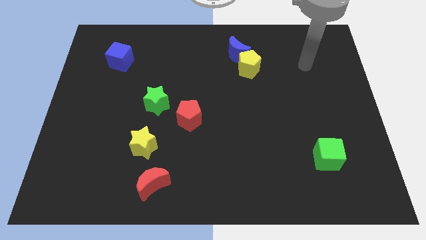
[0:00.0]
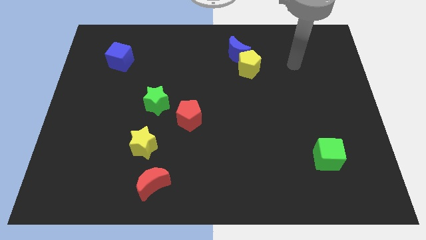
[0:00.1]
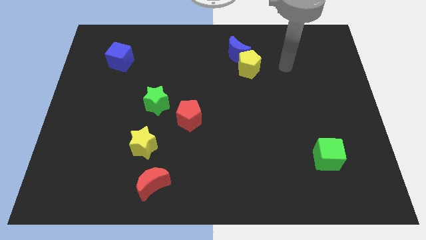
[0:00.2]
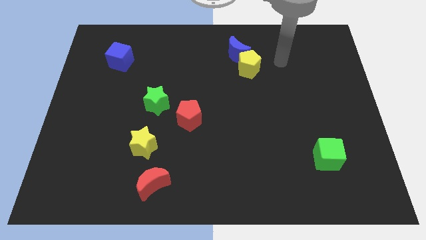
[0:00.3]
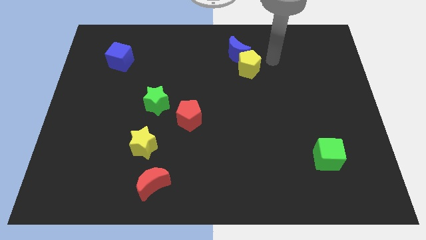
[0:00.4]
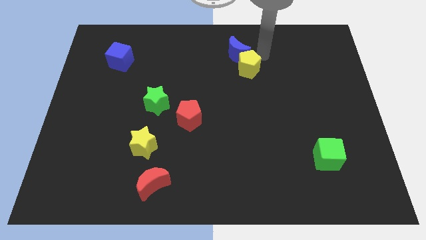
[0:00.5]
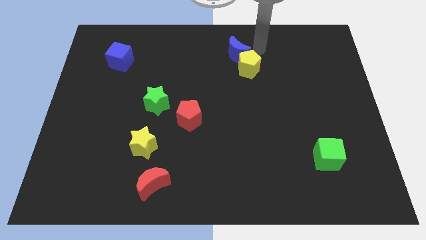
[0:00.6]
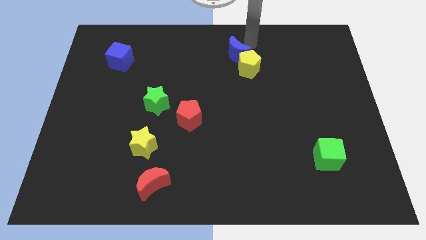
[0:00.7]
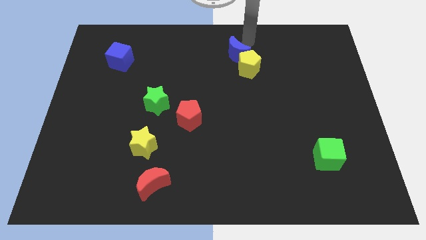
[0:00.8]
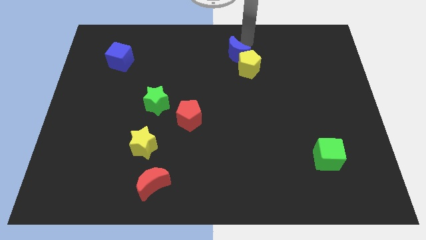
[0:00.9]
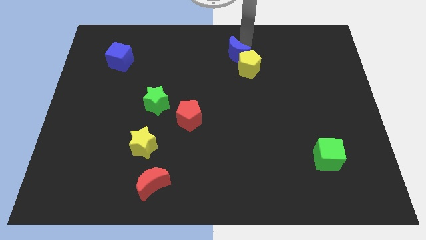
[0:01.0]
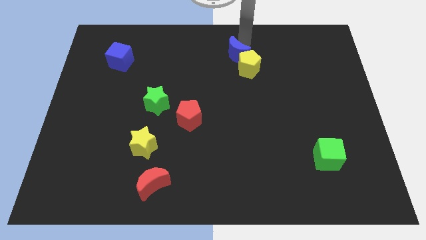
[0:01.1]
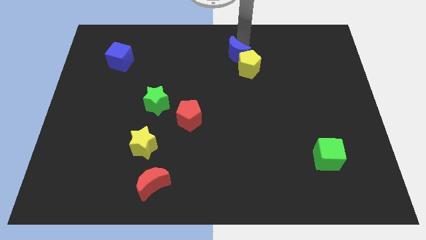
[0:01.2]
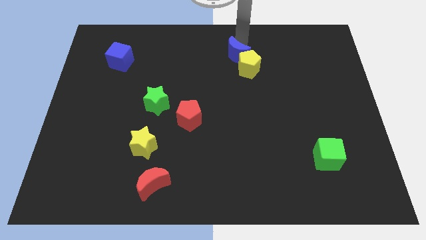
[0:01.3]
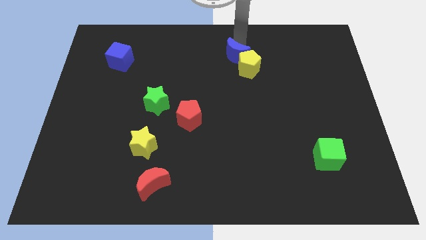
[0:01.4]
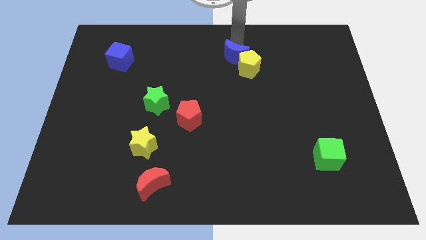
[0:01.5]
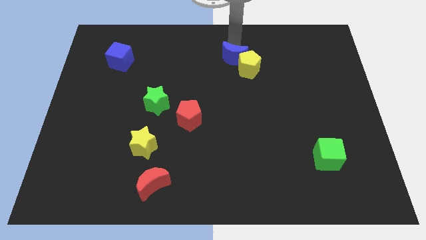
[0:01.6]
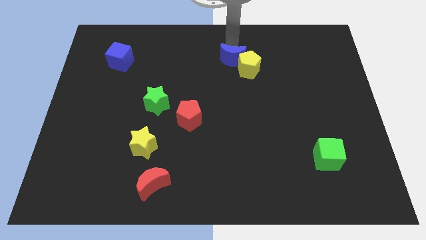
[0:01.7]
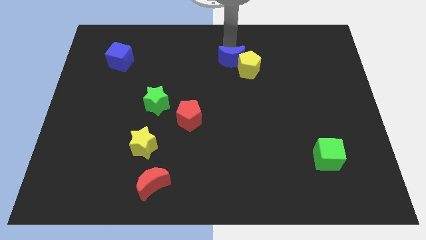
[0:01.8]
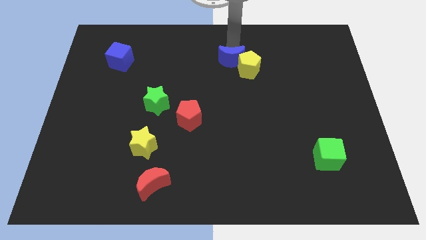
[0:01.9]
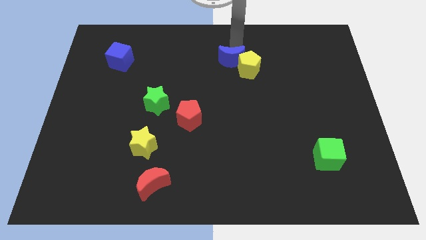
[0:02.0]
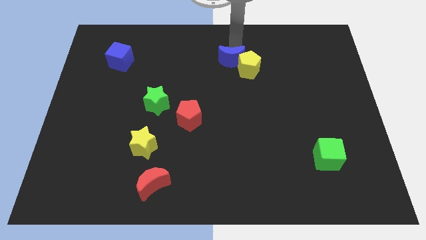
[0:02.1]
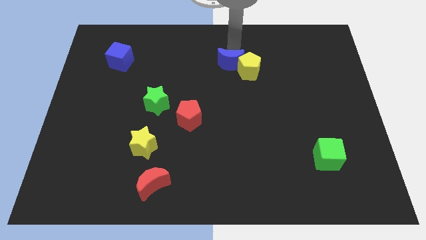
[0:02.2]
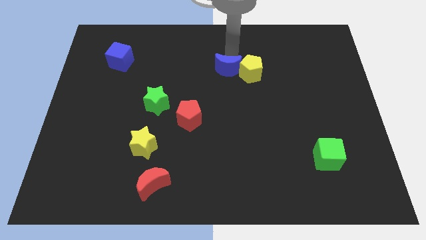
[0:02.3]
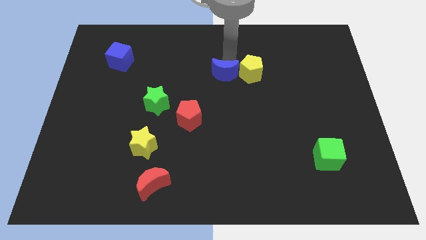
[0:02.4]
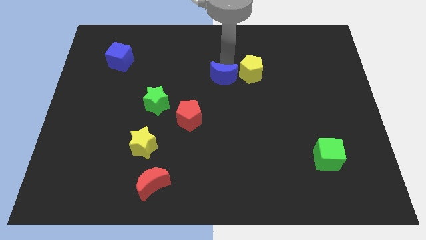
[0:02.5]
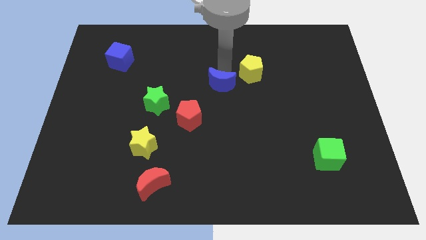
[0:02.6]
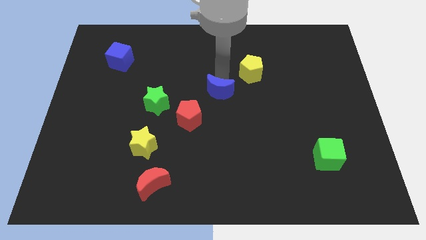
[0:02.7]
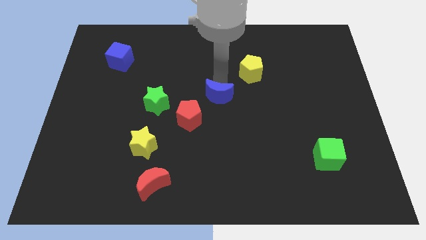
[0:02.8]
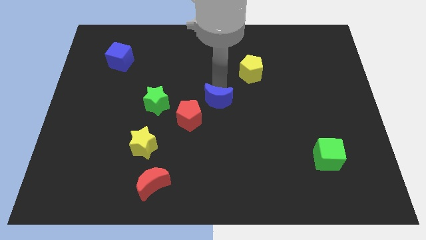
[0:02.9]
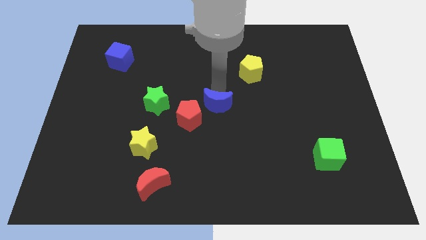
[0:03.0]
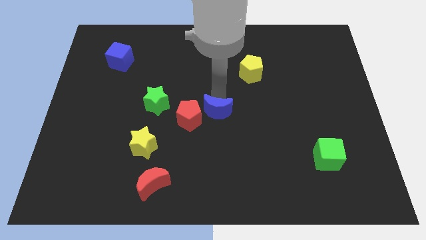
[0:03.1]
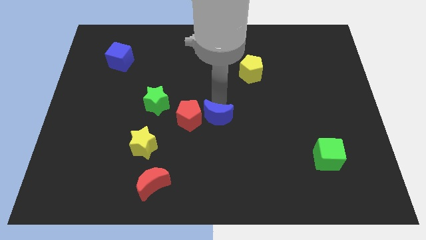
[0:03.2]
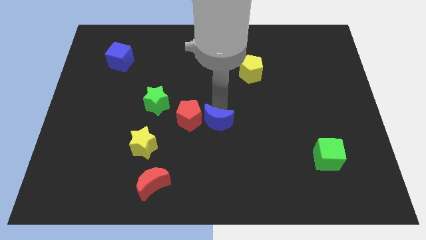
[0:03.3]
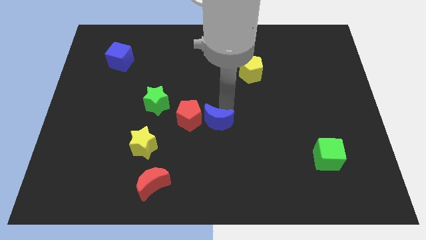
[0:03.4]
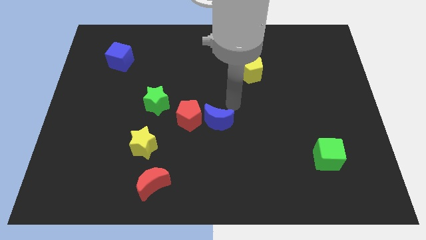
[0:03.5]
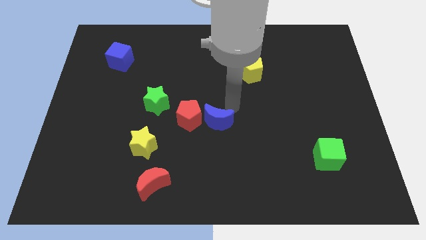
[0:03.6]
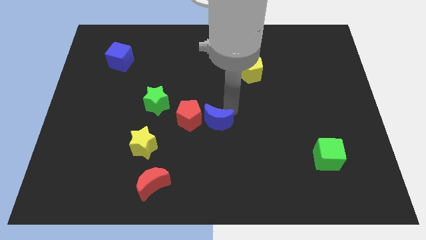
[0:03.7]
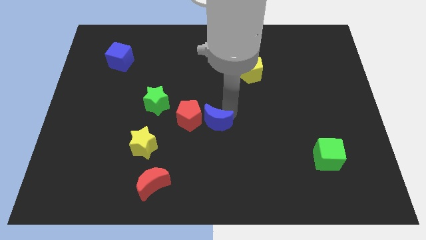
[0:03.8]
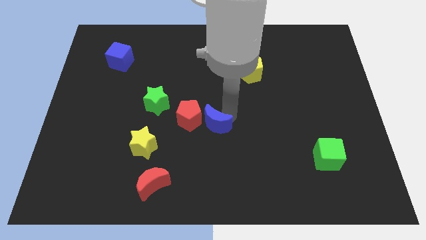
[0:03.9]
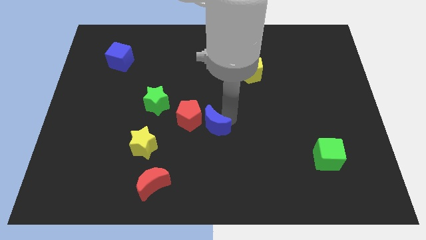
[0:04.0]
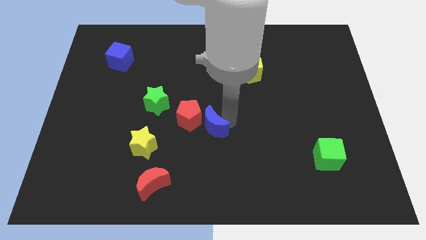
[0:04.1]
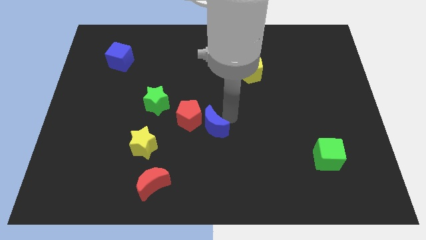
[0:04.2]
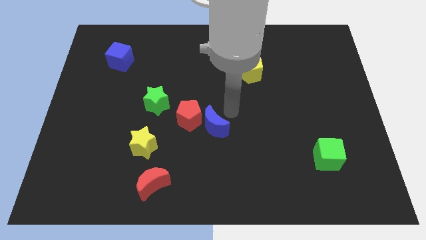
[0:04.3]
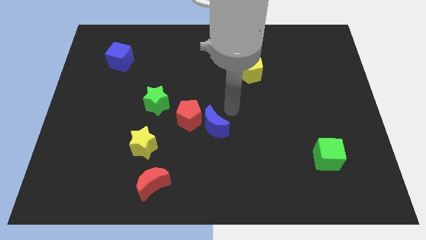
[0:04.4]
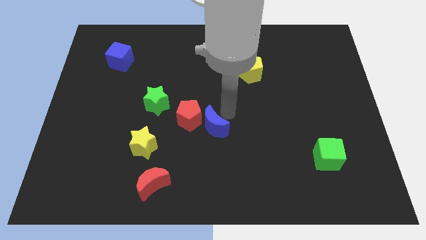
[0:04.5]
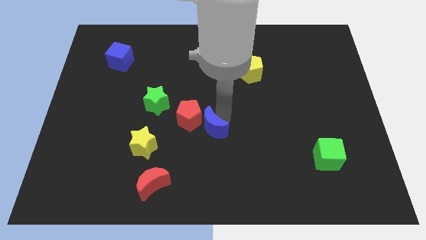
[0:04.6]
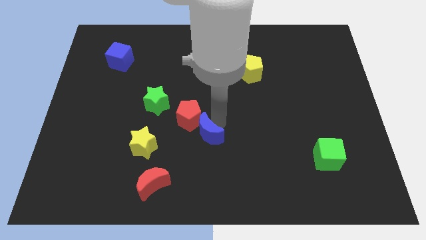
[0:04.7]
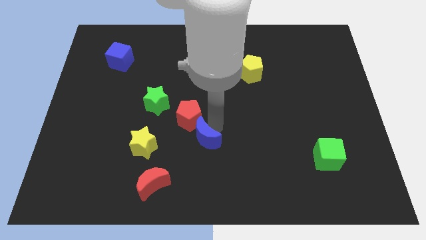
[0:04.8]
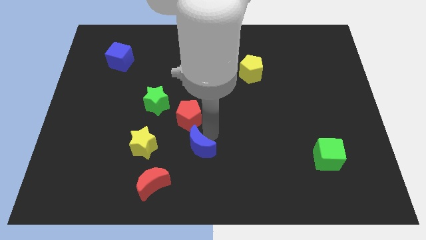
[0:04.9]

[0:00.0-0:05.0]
slide the blue moon to the top right side of the red moon

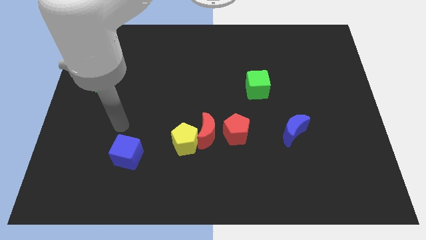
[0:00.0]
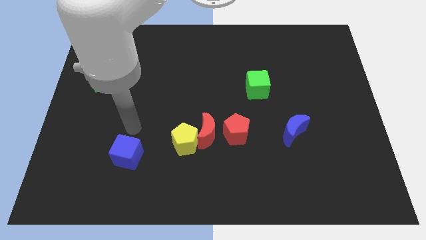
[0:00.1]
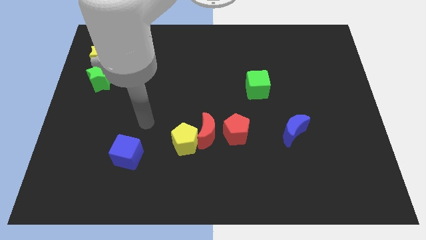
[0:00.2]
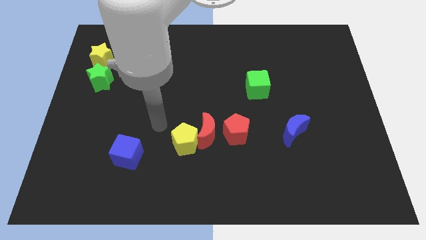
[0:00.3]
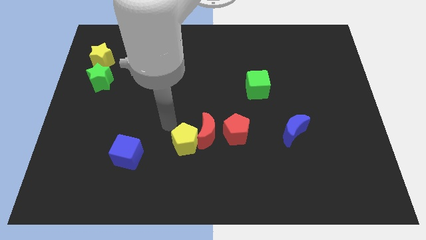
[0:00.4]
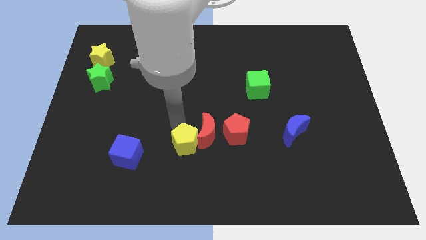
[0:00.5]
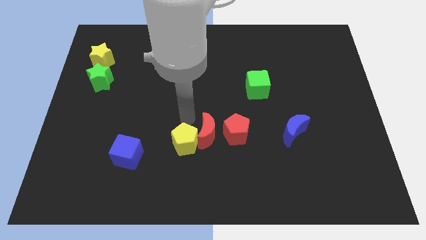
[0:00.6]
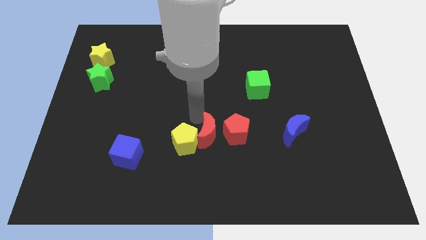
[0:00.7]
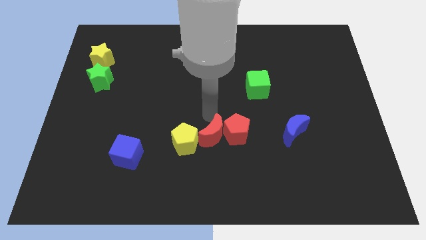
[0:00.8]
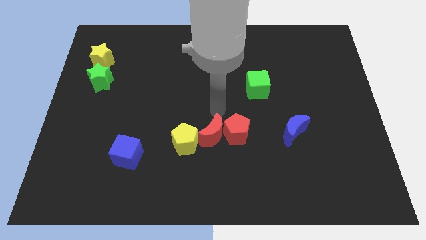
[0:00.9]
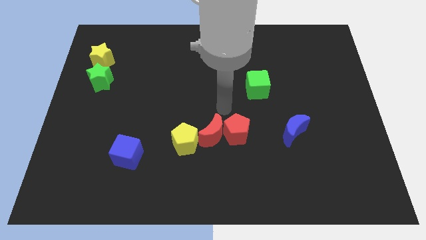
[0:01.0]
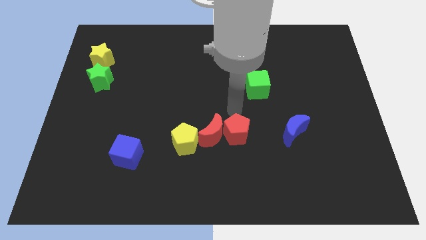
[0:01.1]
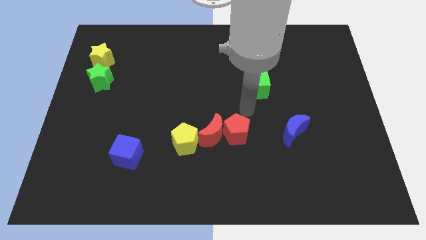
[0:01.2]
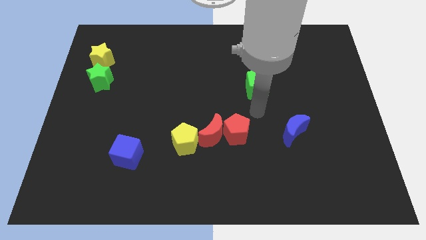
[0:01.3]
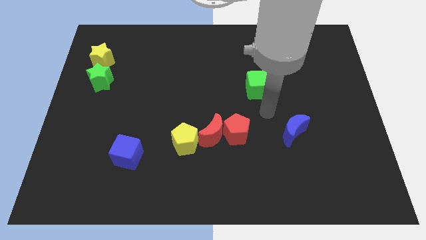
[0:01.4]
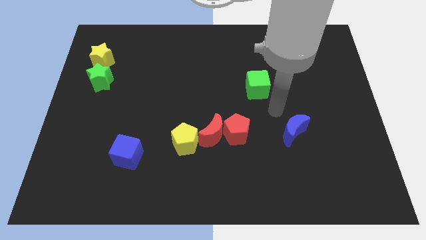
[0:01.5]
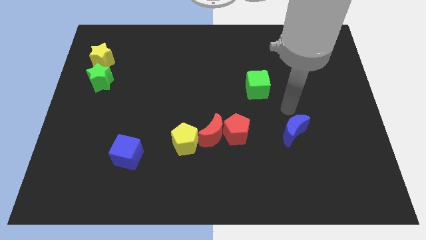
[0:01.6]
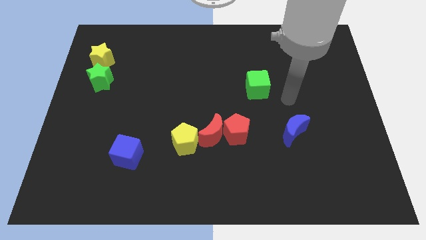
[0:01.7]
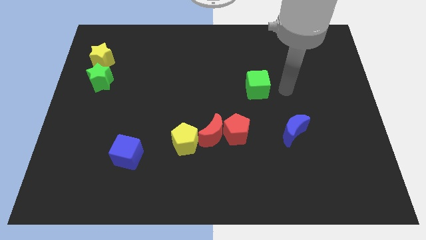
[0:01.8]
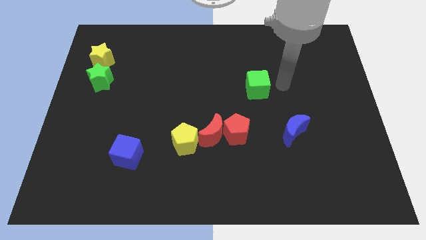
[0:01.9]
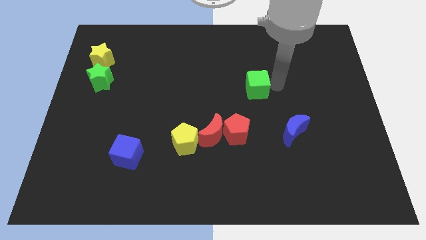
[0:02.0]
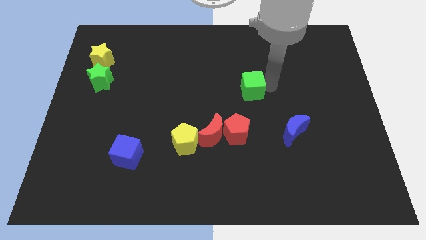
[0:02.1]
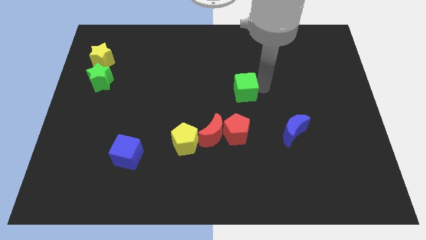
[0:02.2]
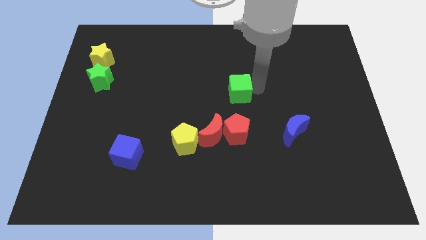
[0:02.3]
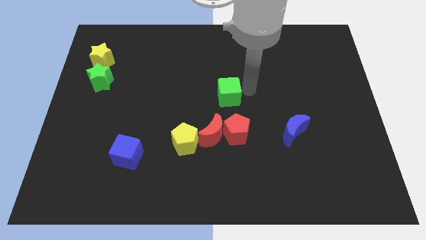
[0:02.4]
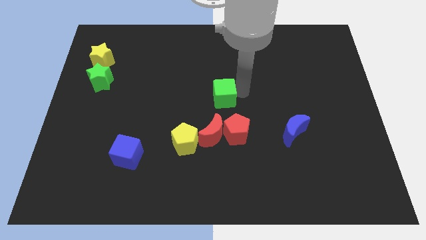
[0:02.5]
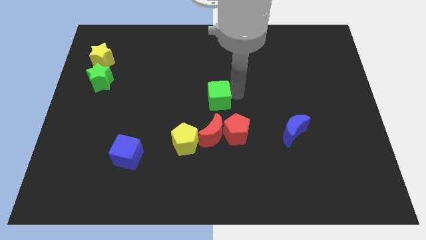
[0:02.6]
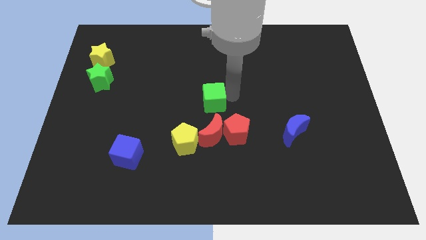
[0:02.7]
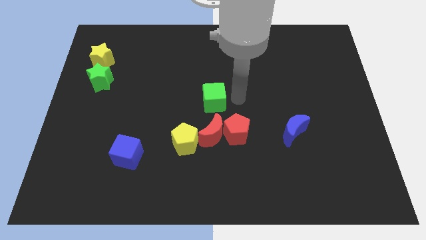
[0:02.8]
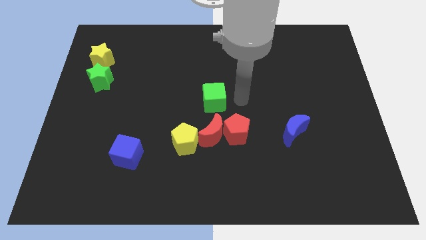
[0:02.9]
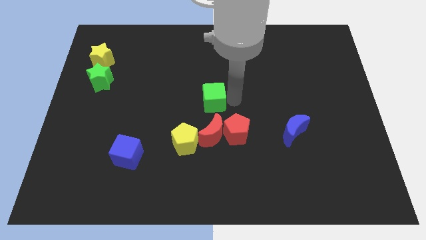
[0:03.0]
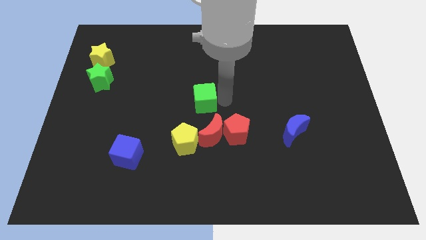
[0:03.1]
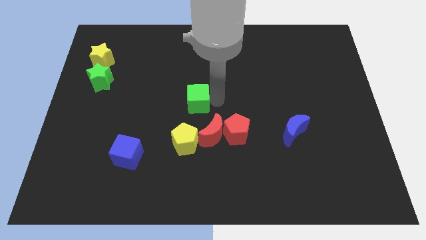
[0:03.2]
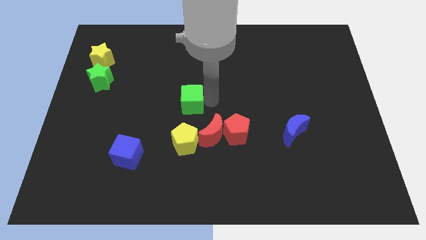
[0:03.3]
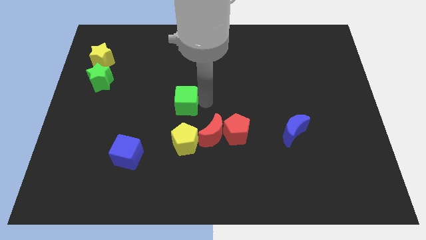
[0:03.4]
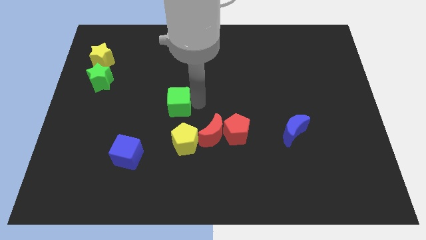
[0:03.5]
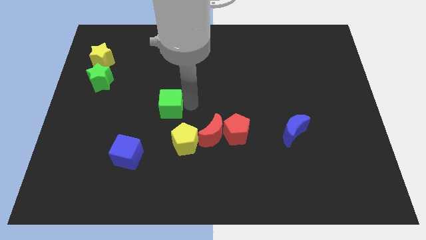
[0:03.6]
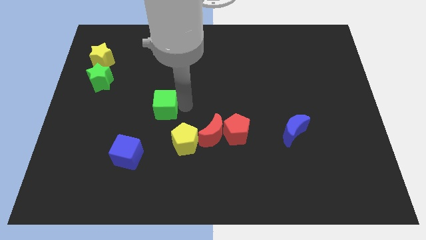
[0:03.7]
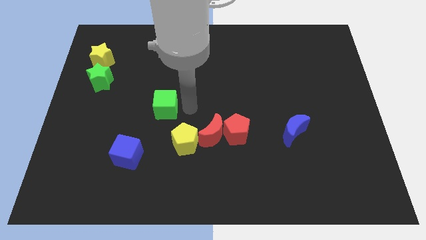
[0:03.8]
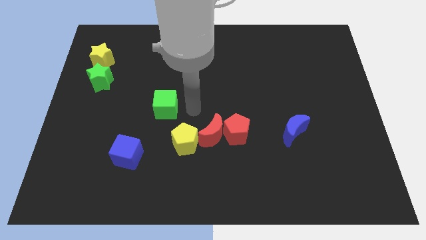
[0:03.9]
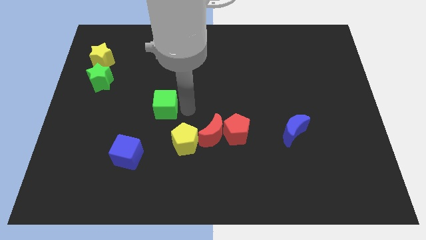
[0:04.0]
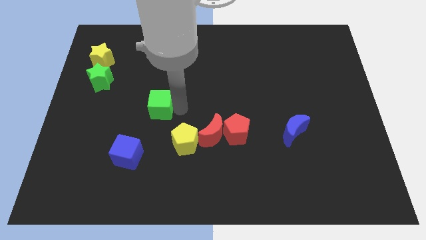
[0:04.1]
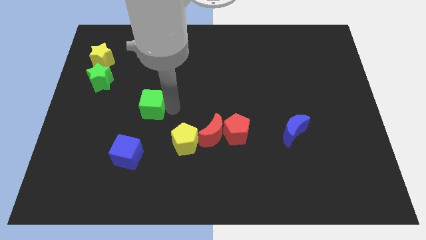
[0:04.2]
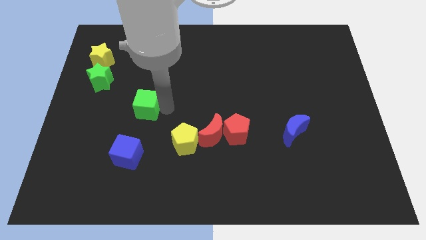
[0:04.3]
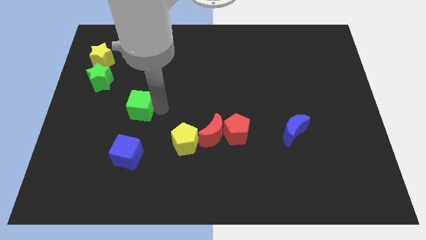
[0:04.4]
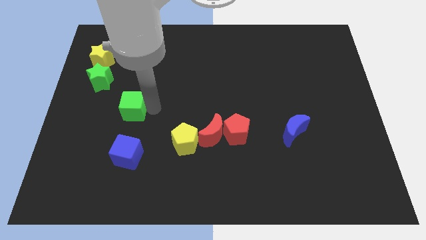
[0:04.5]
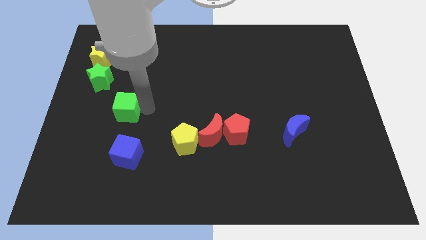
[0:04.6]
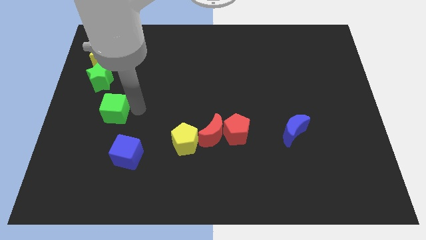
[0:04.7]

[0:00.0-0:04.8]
push the green cube below the green star
